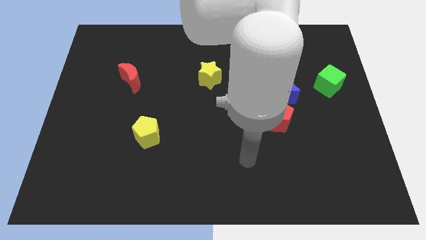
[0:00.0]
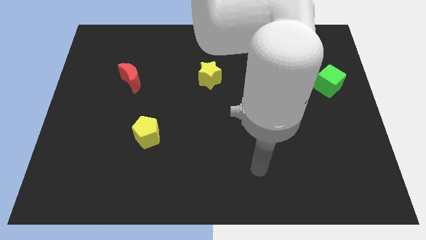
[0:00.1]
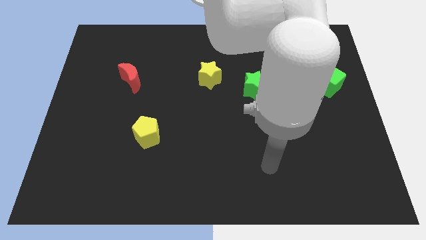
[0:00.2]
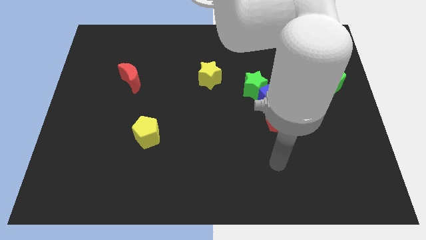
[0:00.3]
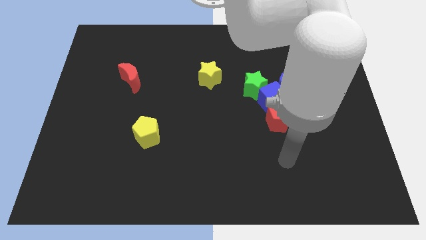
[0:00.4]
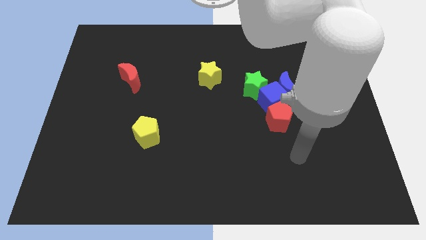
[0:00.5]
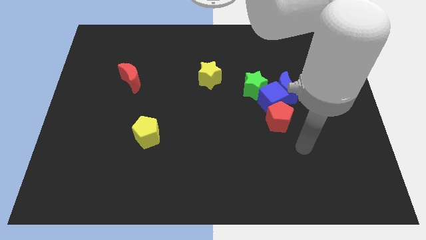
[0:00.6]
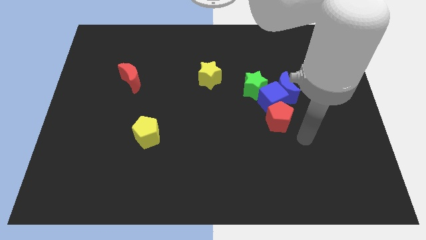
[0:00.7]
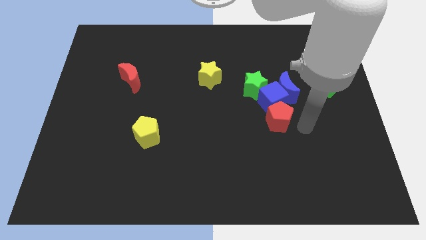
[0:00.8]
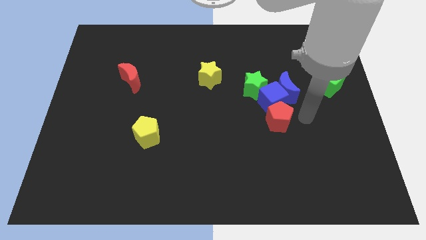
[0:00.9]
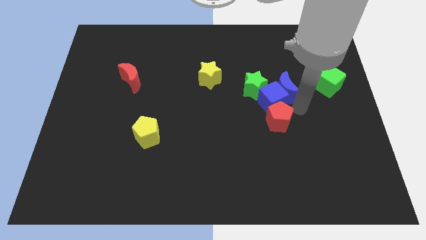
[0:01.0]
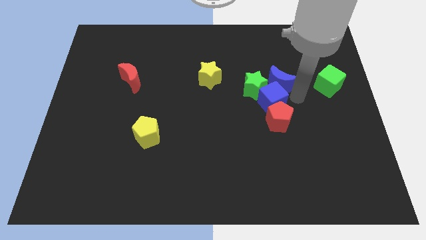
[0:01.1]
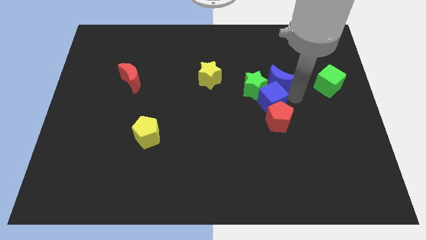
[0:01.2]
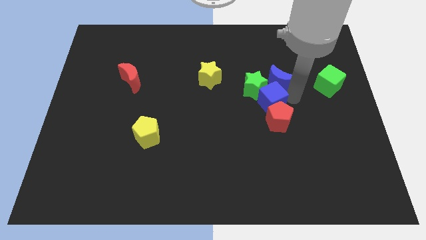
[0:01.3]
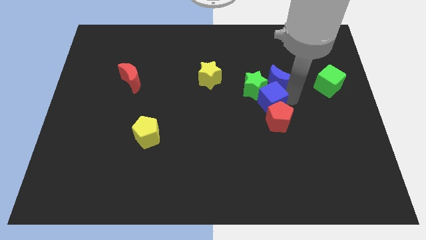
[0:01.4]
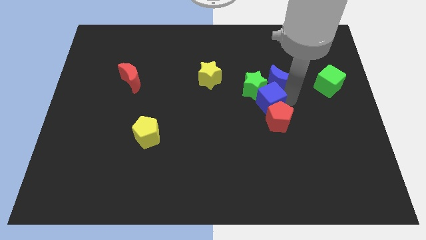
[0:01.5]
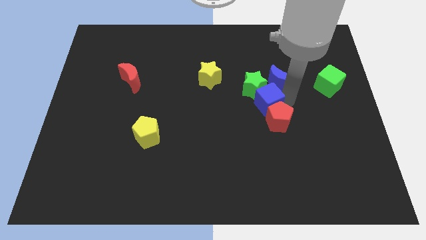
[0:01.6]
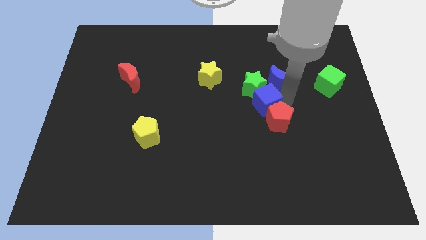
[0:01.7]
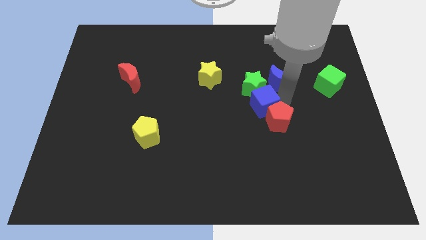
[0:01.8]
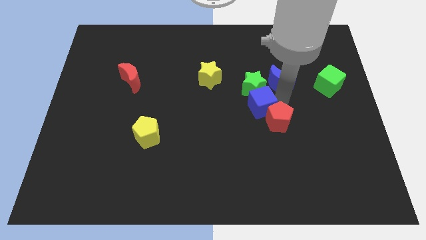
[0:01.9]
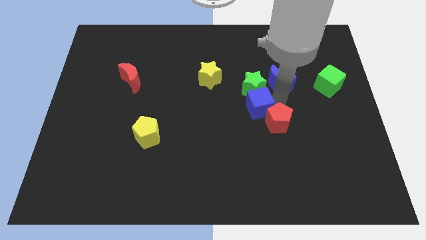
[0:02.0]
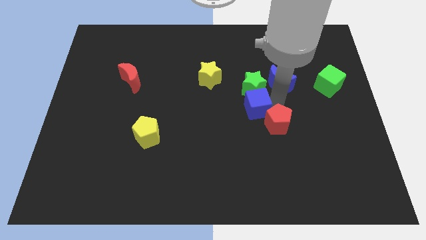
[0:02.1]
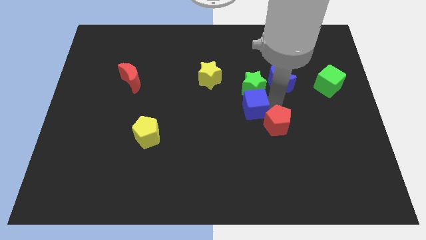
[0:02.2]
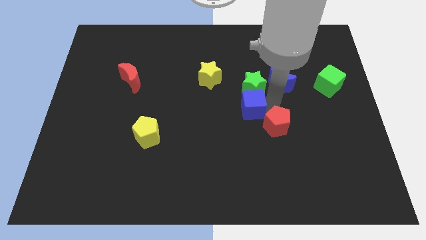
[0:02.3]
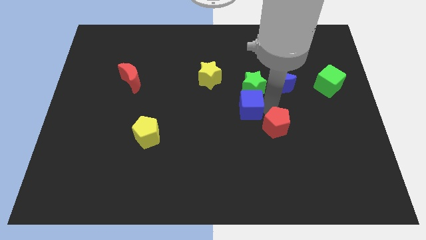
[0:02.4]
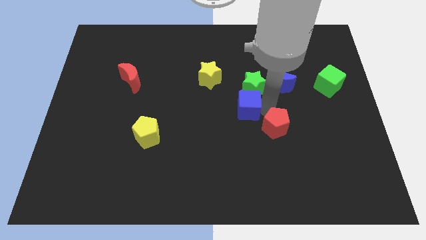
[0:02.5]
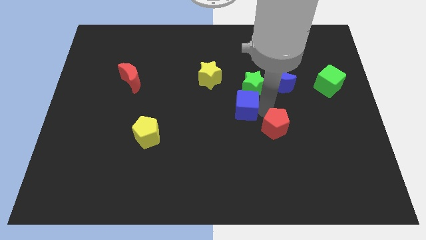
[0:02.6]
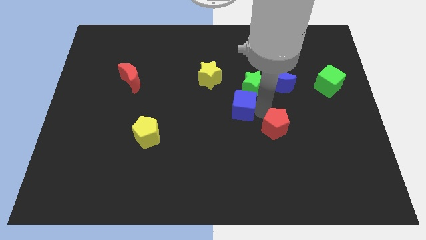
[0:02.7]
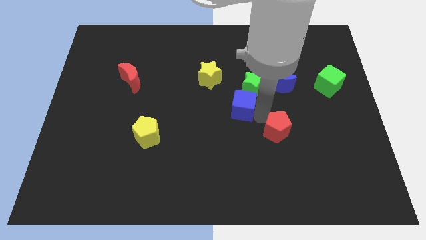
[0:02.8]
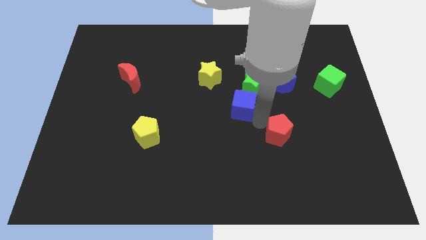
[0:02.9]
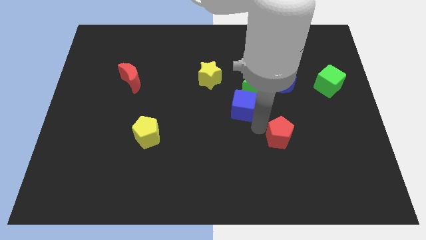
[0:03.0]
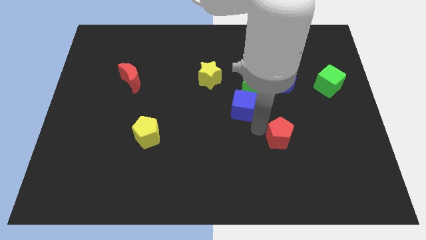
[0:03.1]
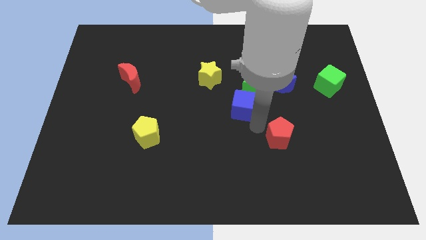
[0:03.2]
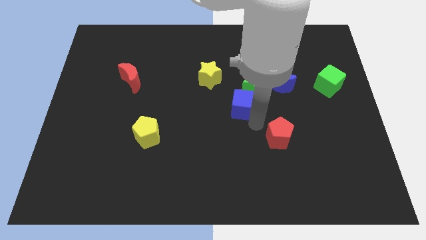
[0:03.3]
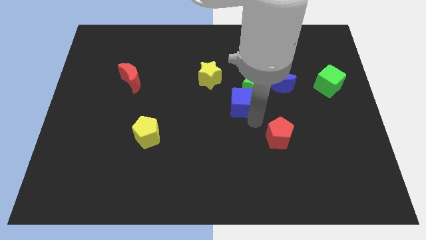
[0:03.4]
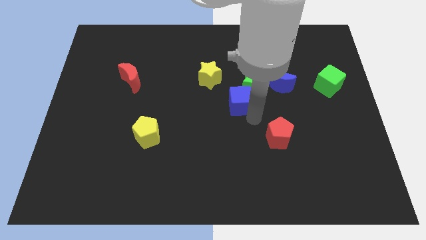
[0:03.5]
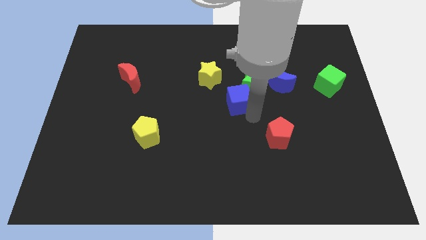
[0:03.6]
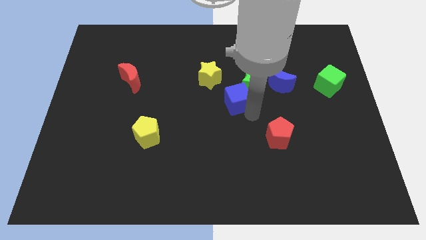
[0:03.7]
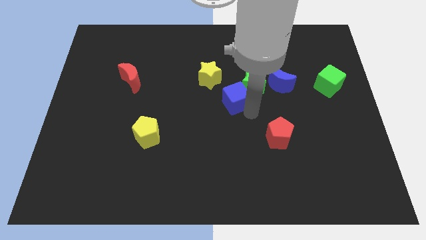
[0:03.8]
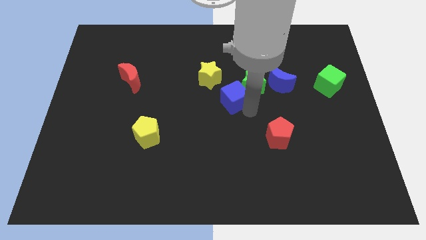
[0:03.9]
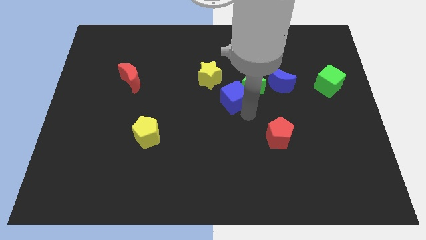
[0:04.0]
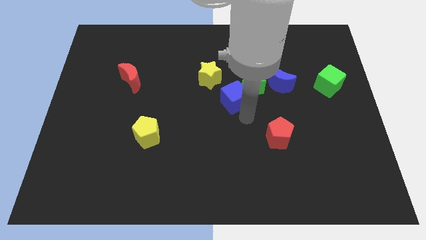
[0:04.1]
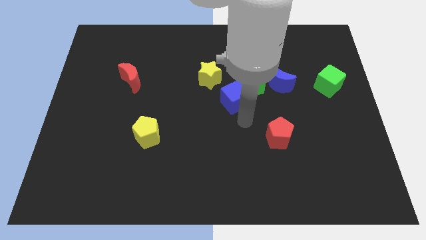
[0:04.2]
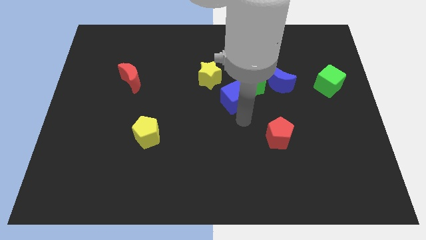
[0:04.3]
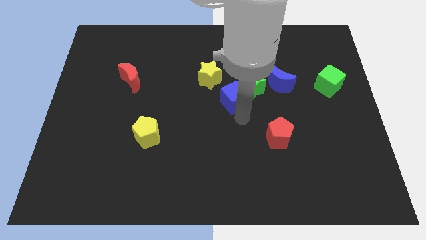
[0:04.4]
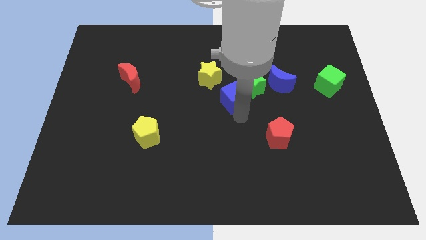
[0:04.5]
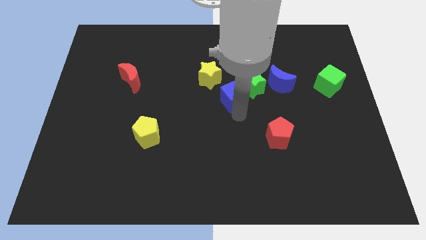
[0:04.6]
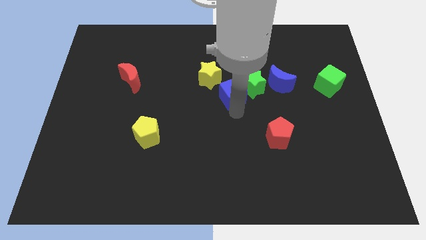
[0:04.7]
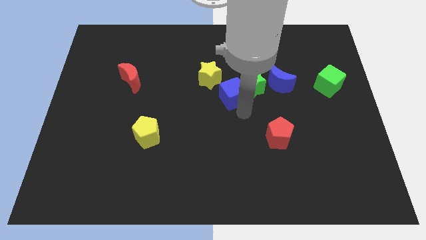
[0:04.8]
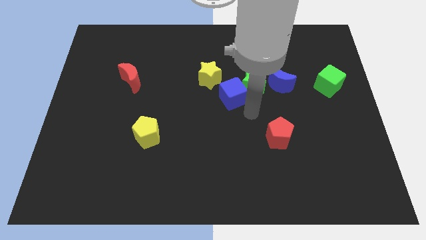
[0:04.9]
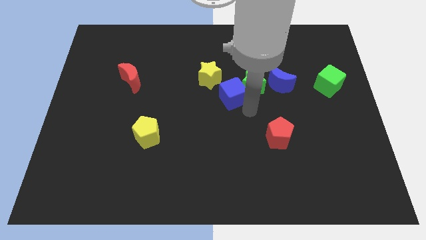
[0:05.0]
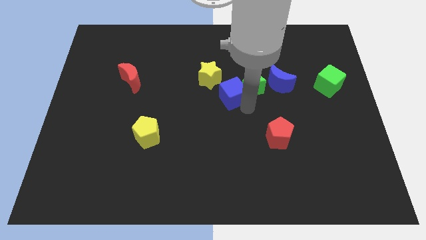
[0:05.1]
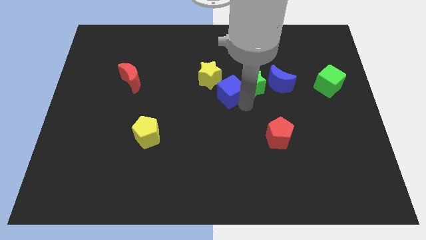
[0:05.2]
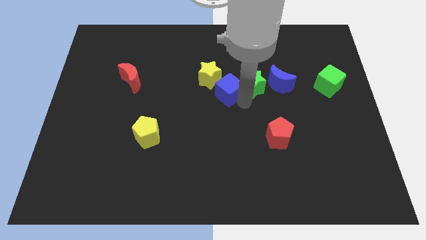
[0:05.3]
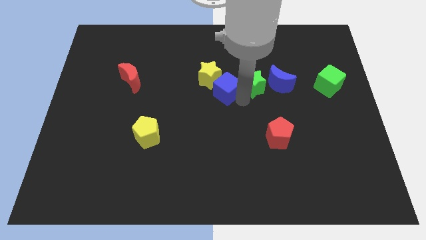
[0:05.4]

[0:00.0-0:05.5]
push the blue cube next to the yellow star

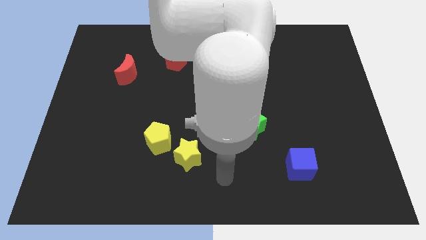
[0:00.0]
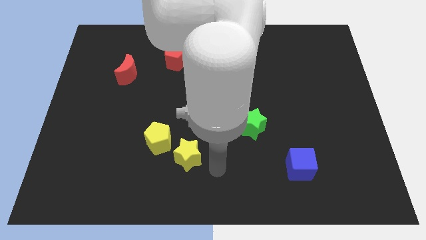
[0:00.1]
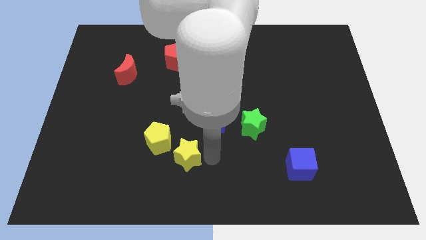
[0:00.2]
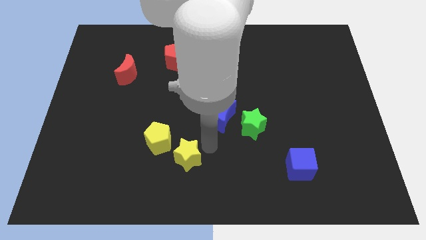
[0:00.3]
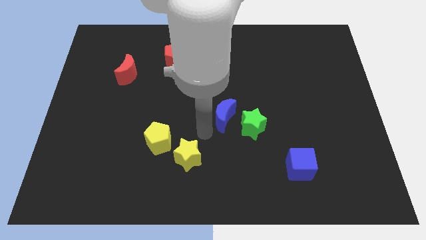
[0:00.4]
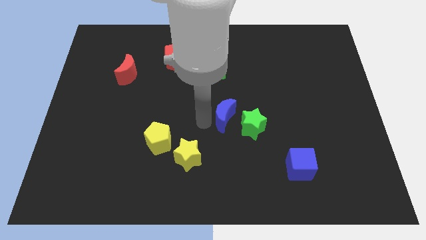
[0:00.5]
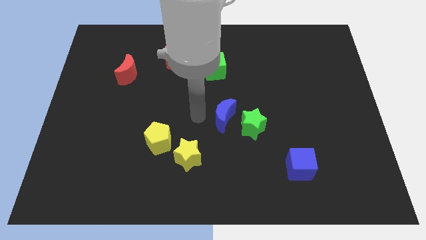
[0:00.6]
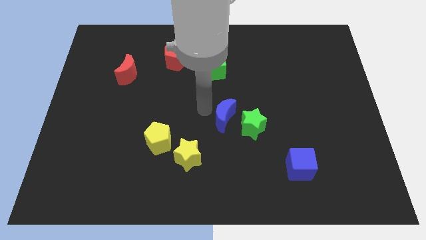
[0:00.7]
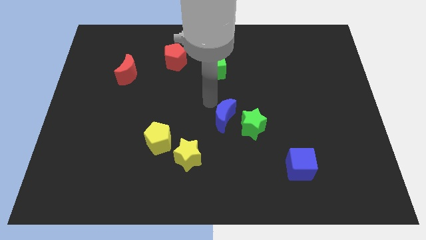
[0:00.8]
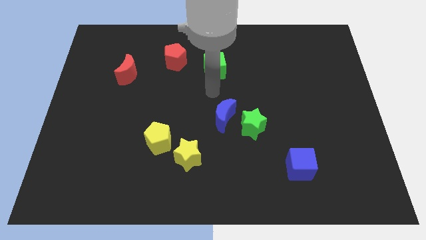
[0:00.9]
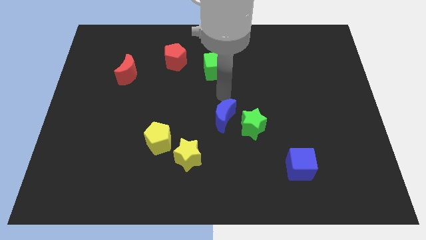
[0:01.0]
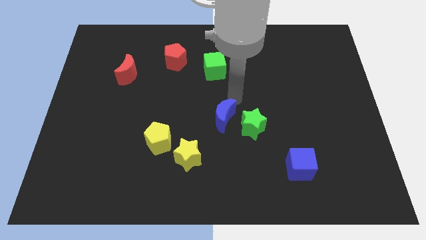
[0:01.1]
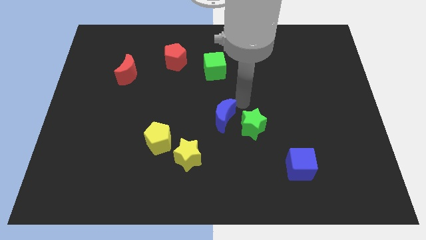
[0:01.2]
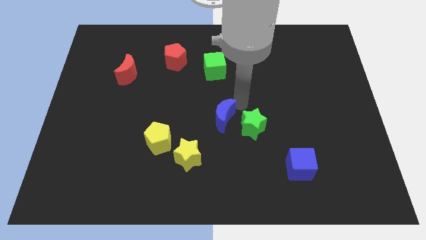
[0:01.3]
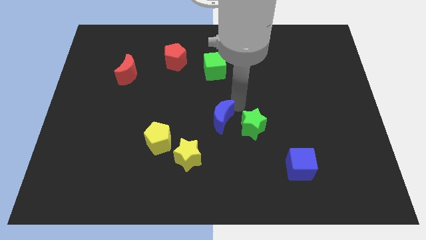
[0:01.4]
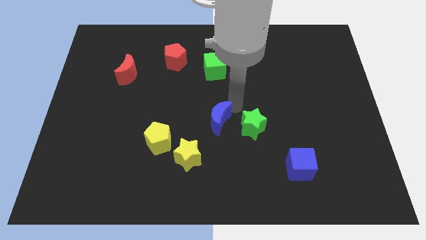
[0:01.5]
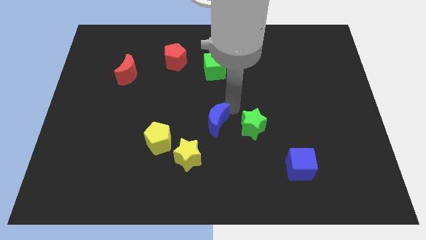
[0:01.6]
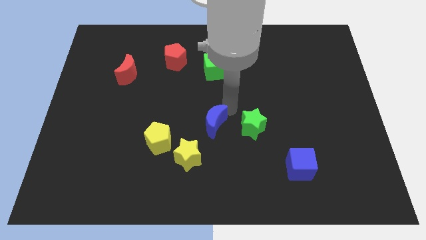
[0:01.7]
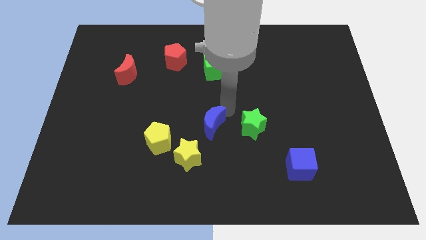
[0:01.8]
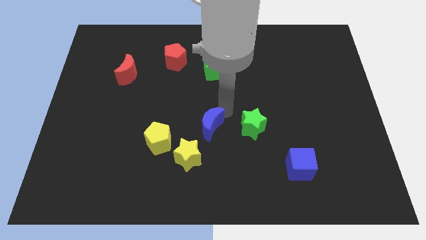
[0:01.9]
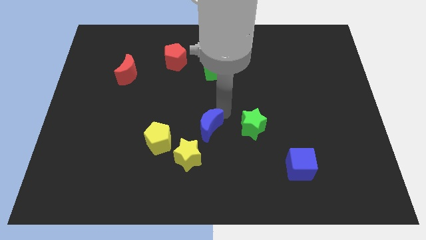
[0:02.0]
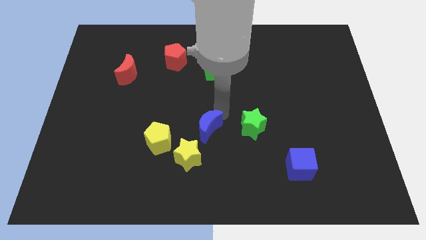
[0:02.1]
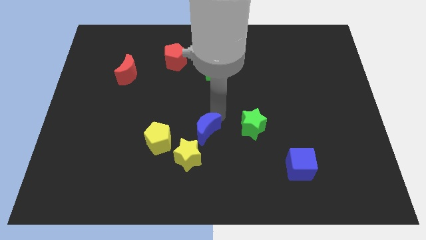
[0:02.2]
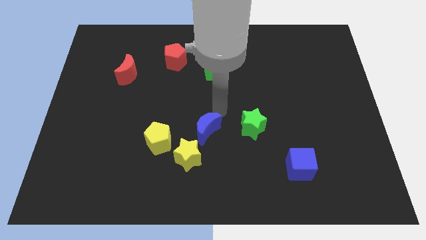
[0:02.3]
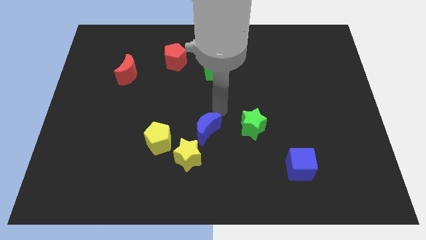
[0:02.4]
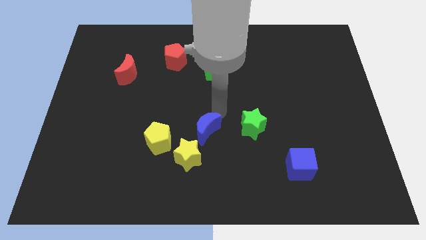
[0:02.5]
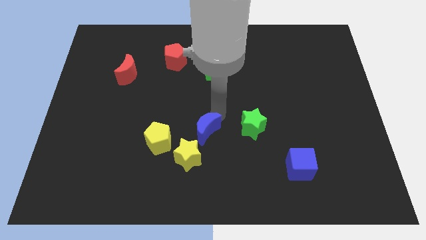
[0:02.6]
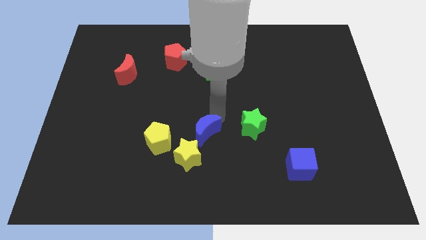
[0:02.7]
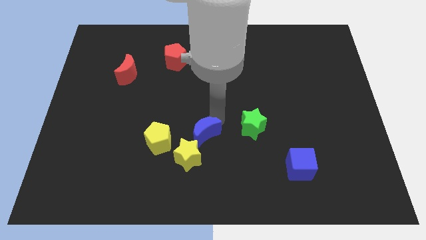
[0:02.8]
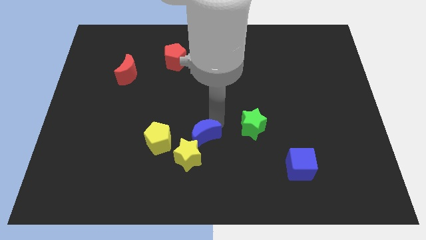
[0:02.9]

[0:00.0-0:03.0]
slide the blue moon to the yellow star
